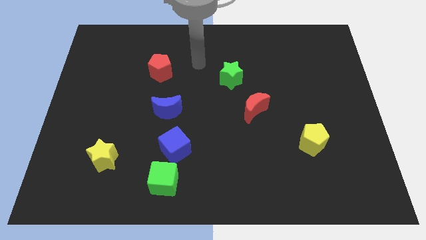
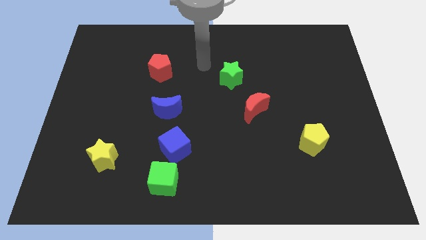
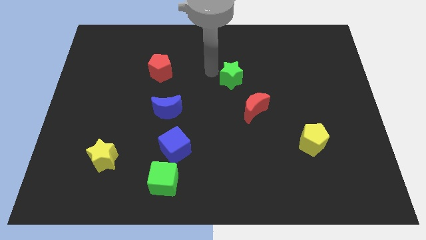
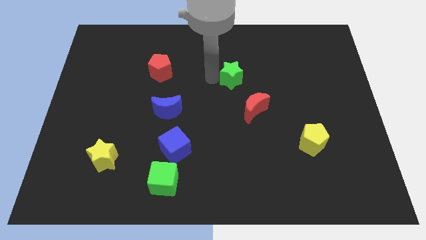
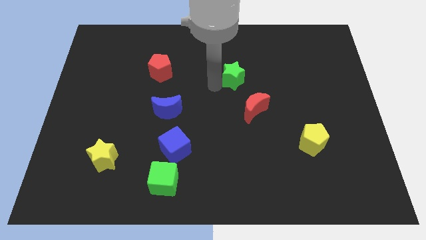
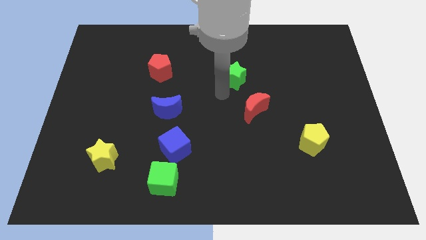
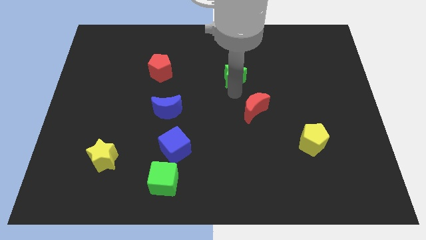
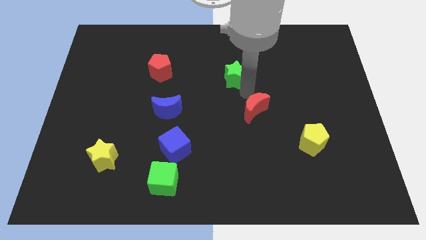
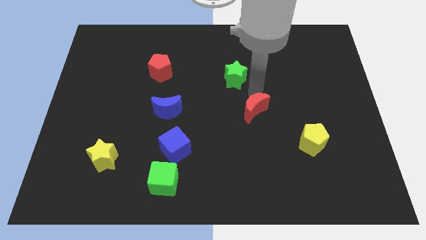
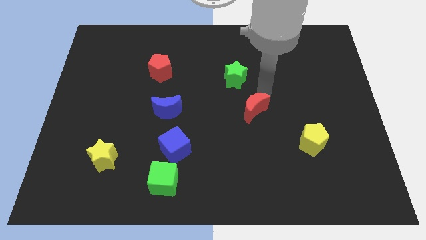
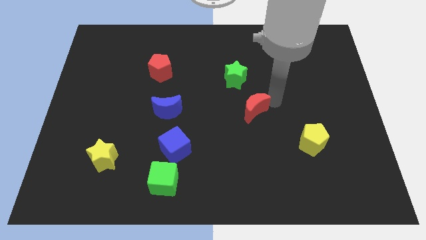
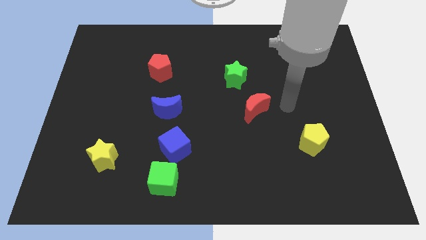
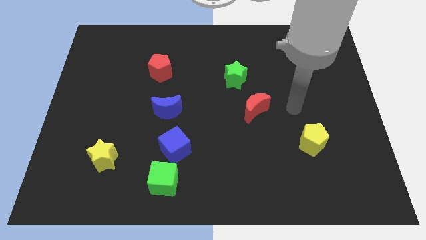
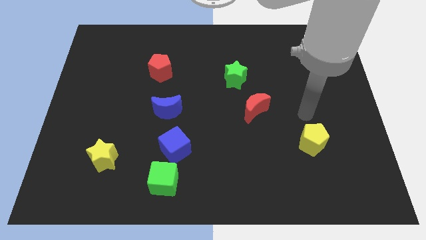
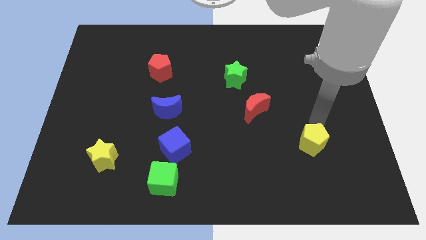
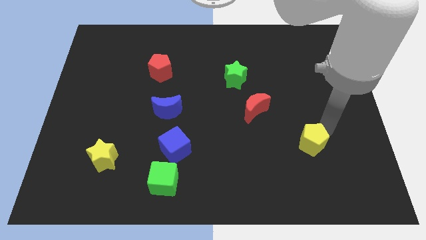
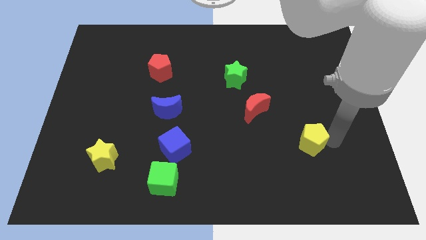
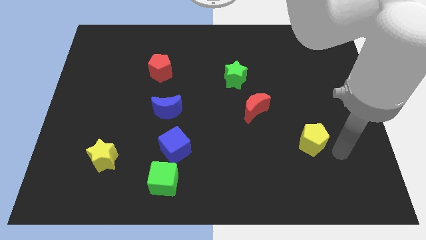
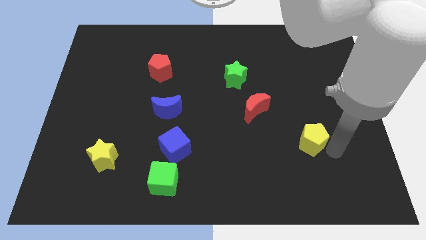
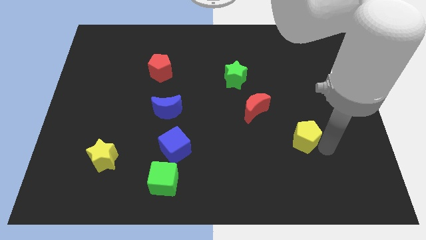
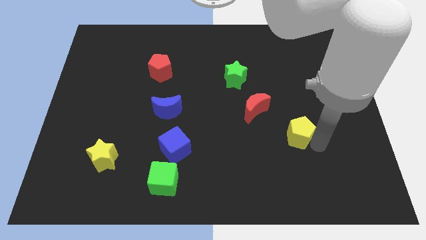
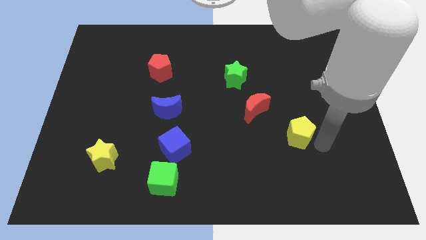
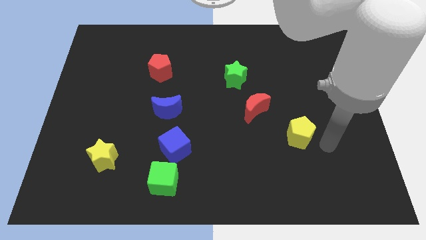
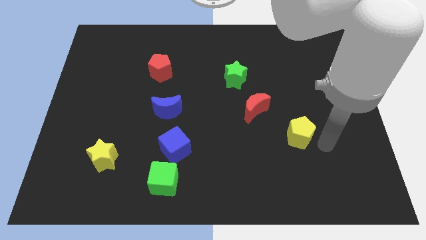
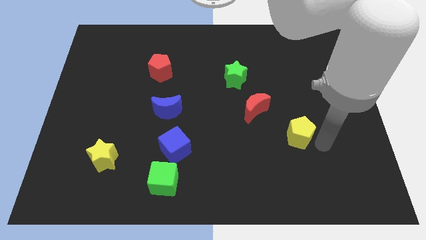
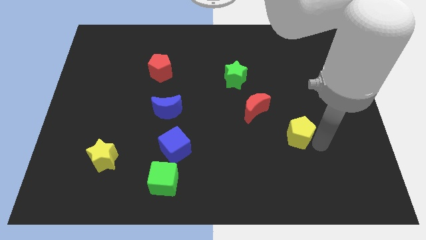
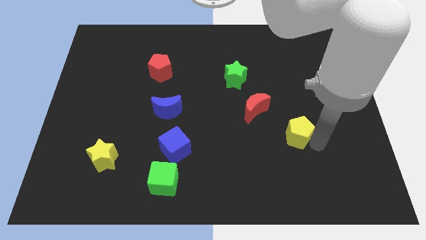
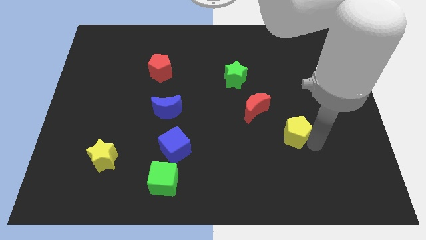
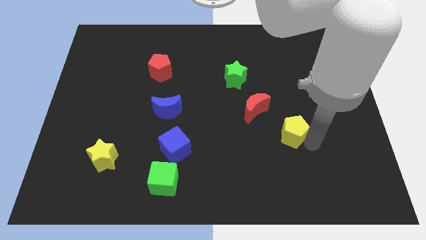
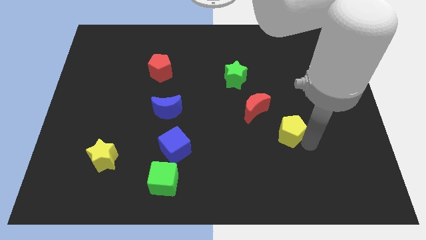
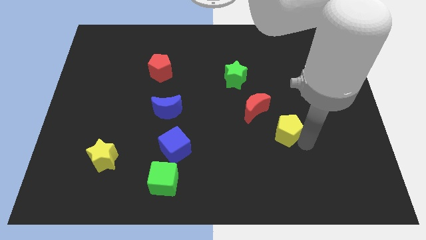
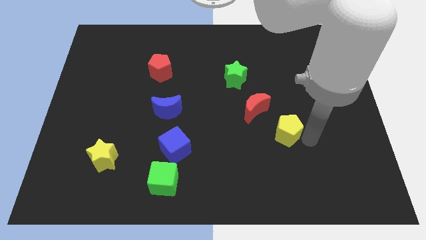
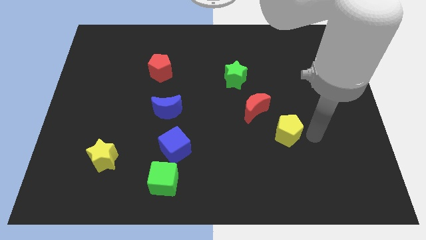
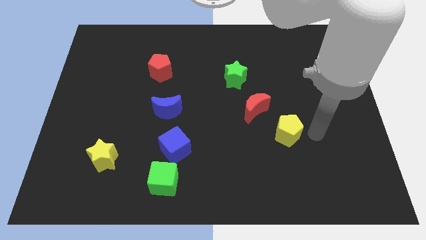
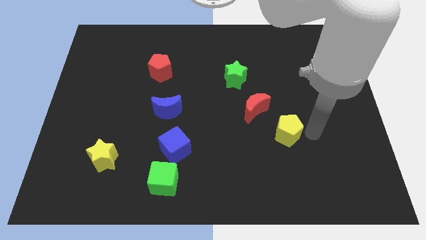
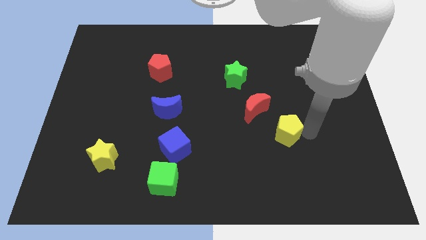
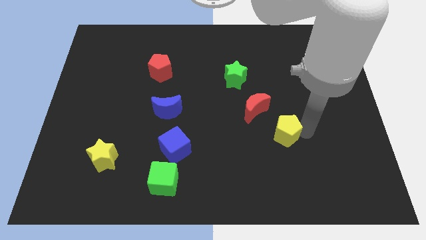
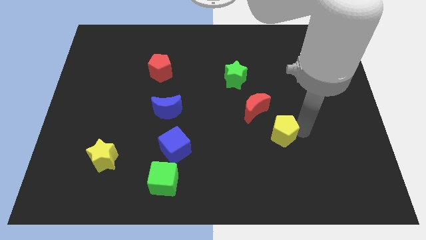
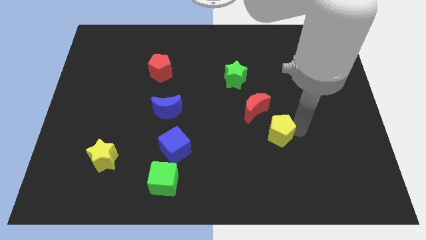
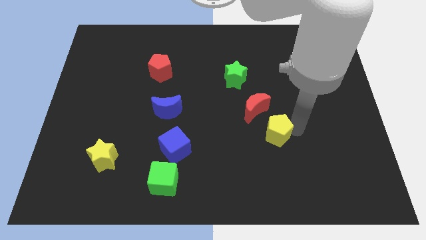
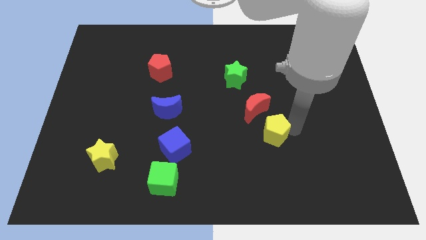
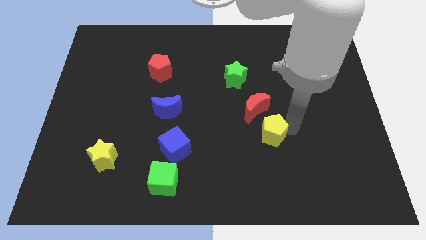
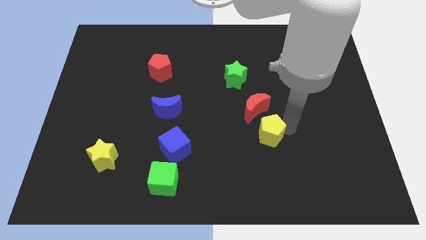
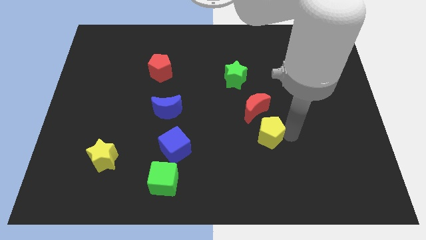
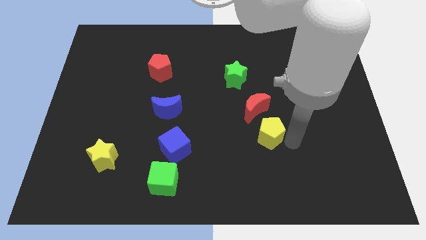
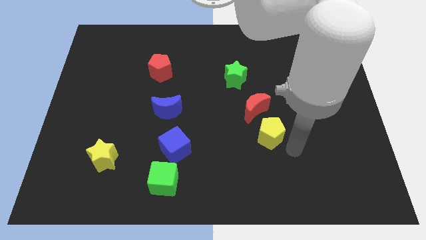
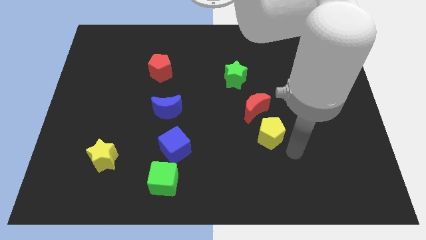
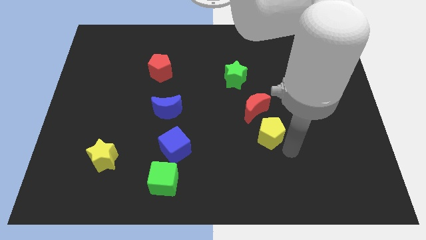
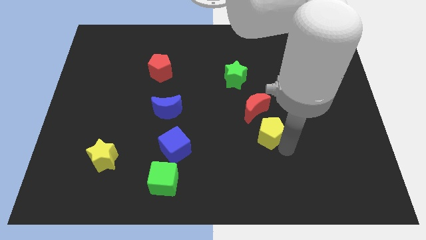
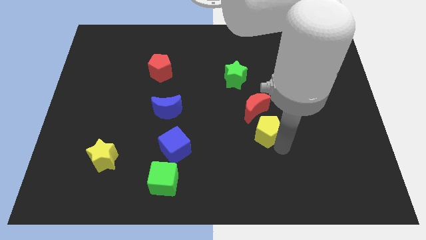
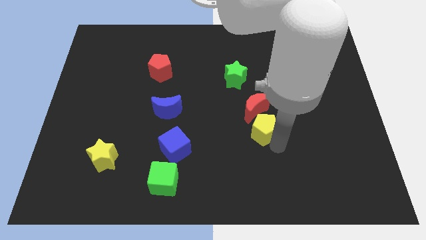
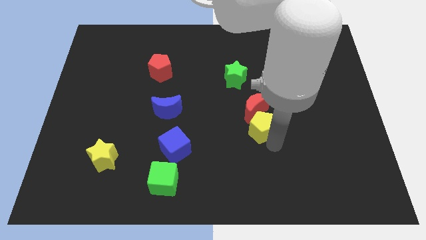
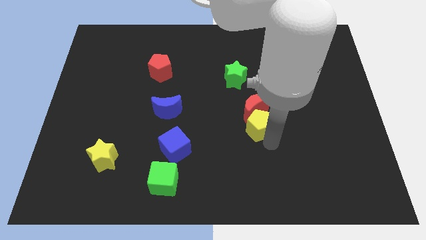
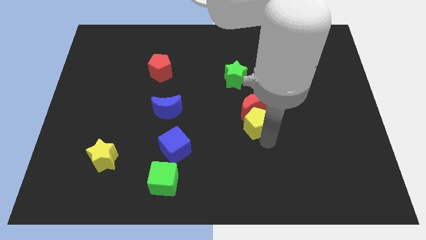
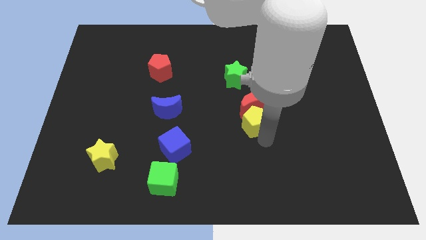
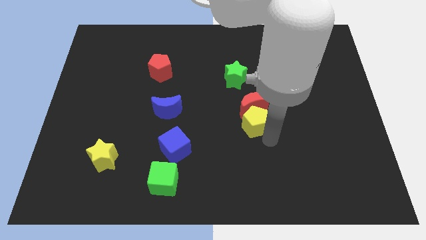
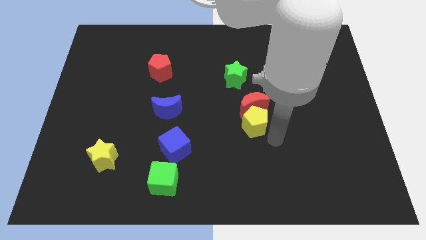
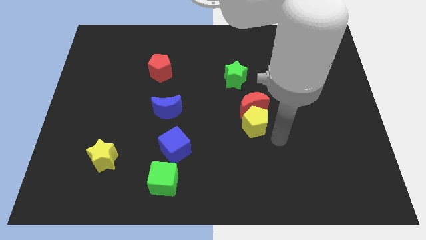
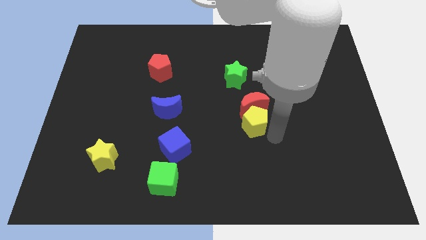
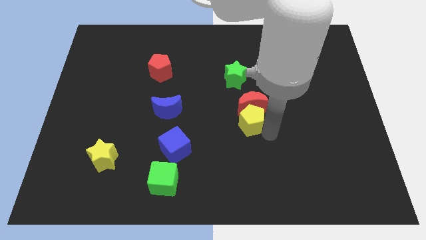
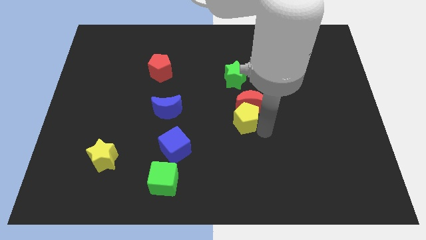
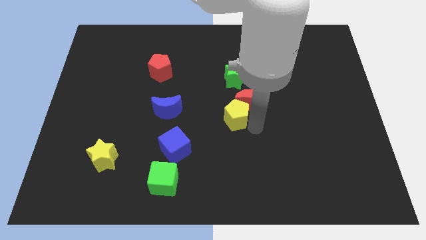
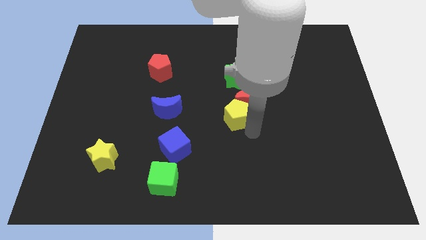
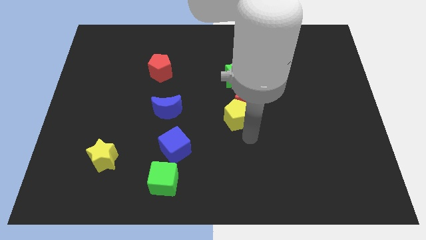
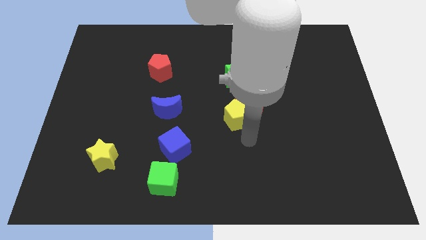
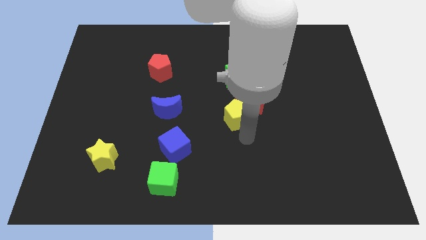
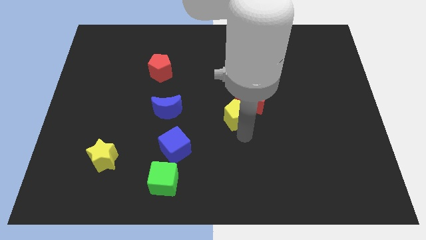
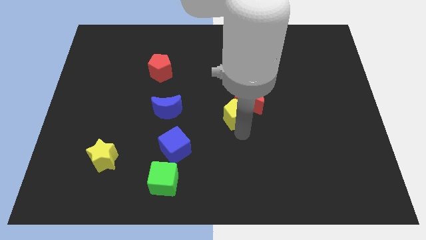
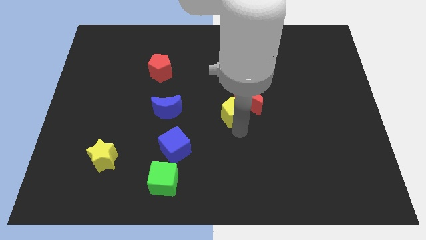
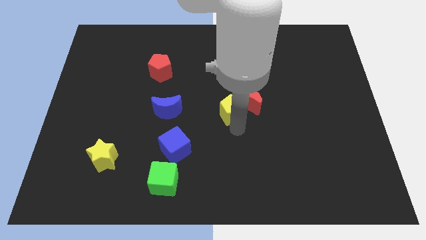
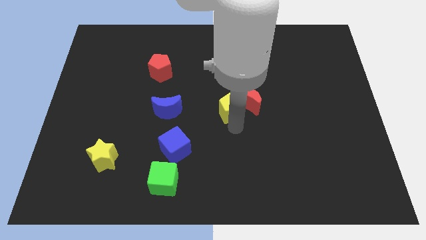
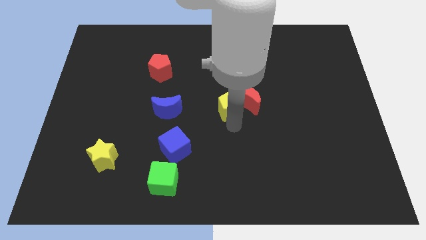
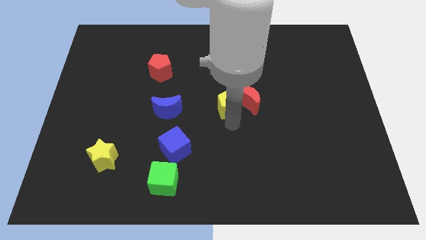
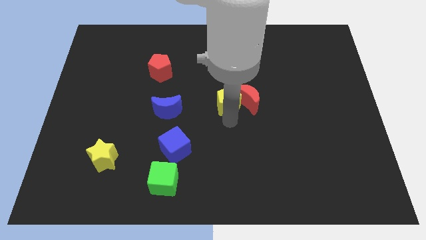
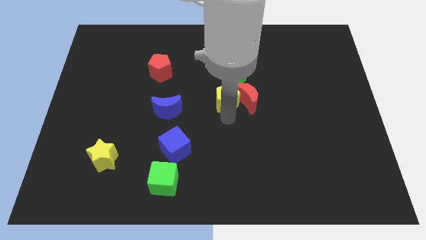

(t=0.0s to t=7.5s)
slide the yellow pentagon upwards and then to the left

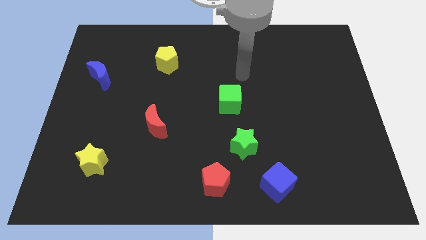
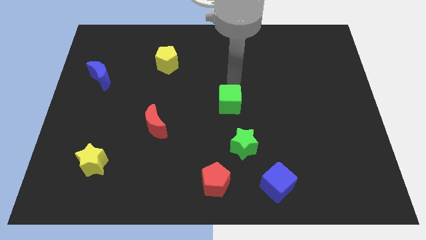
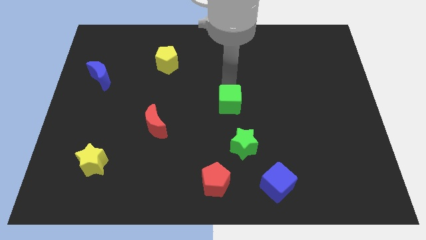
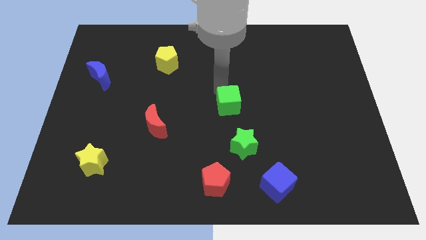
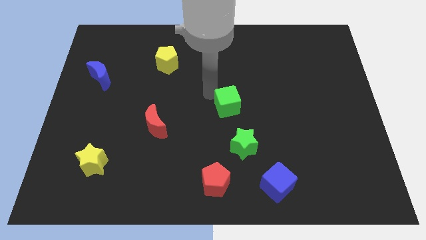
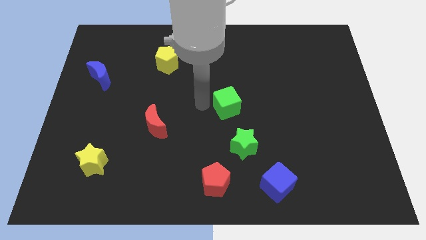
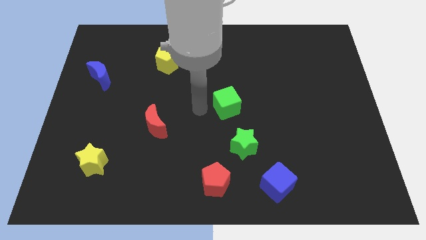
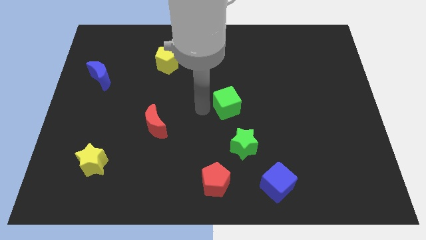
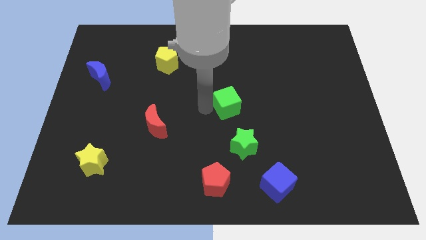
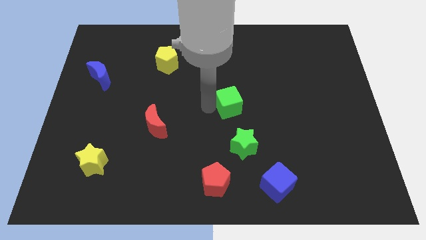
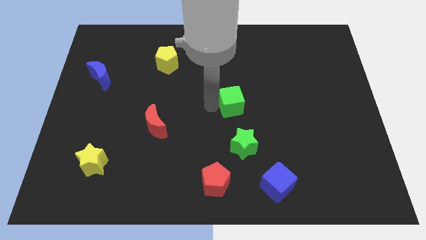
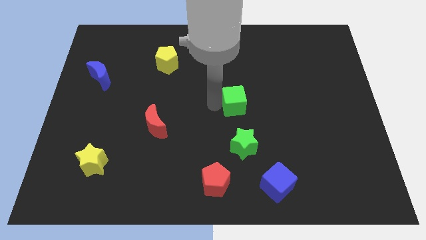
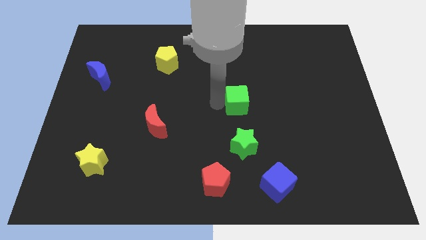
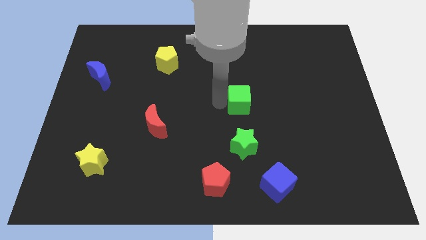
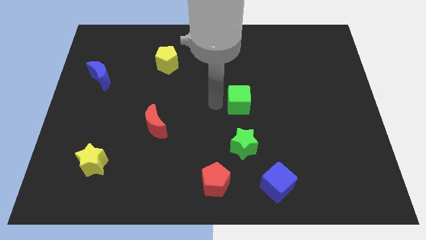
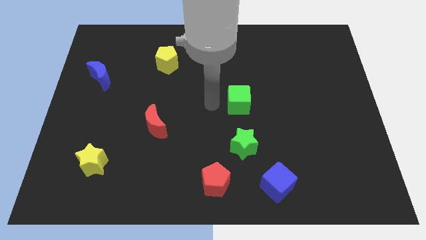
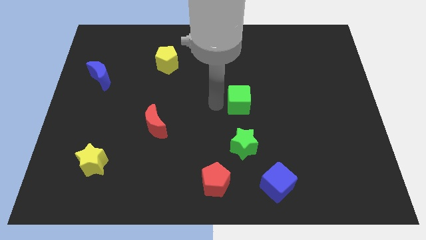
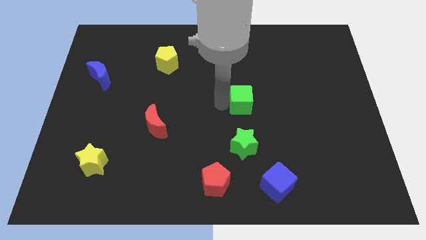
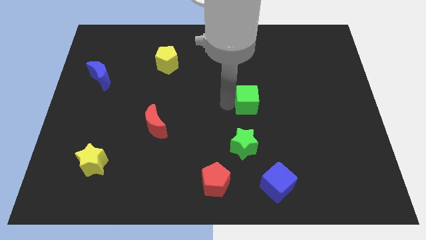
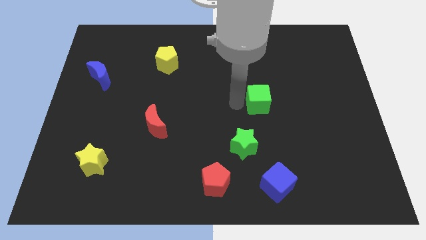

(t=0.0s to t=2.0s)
move the green cube a little bit to the right
